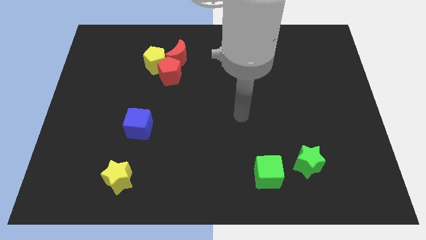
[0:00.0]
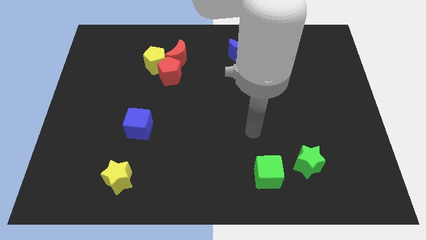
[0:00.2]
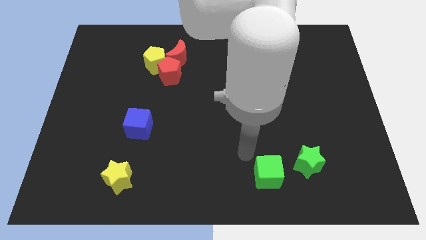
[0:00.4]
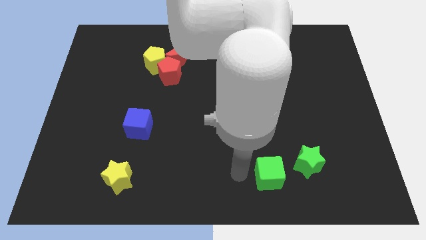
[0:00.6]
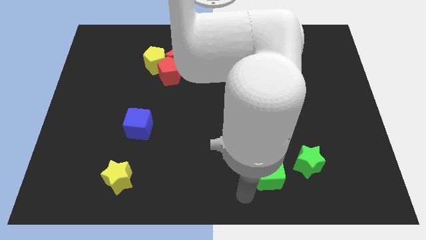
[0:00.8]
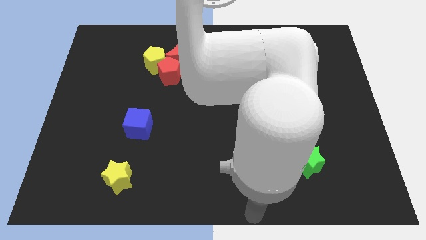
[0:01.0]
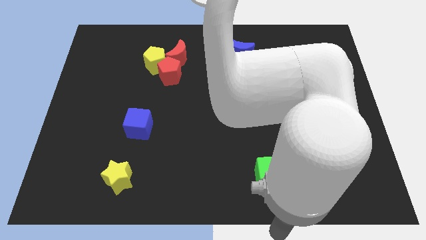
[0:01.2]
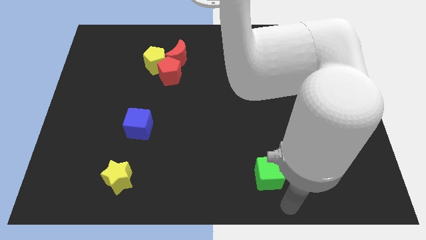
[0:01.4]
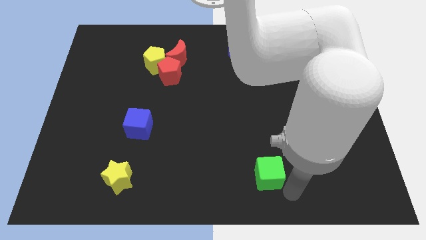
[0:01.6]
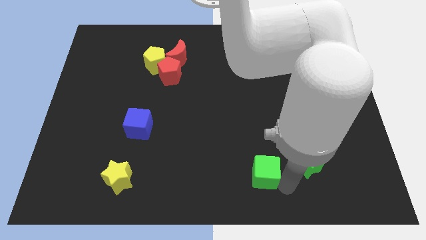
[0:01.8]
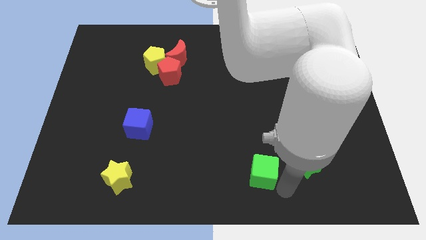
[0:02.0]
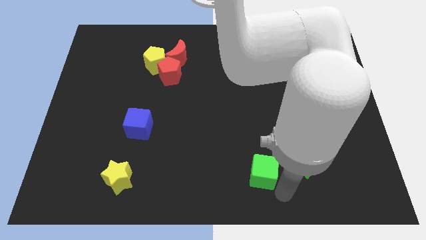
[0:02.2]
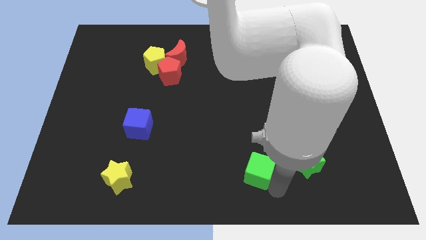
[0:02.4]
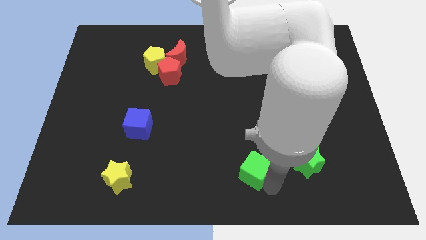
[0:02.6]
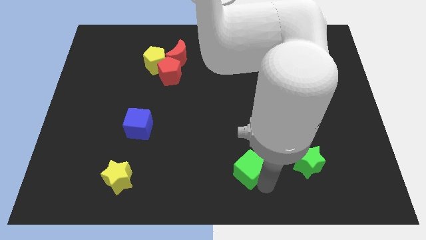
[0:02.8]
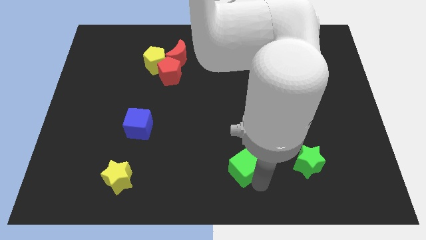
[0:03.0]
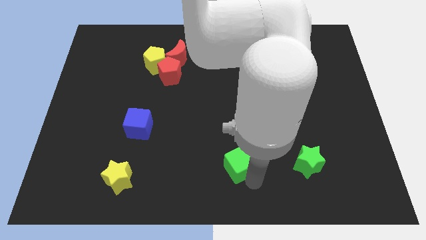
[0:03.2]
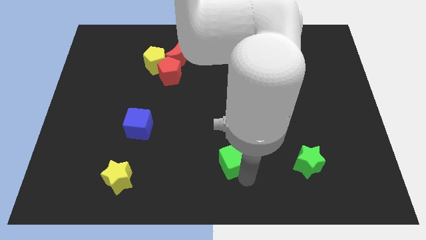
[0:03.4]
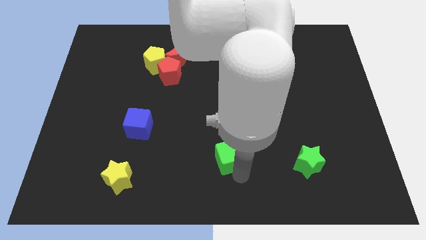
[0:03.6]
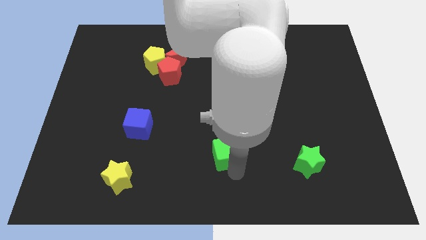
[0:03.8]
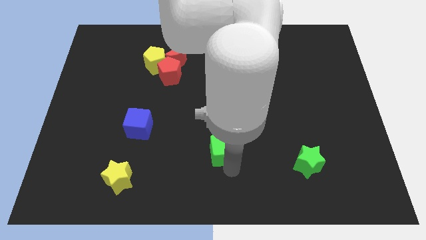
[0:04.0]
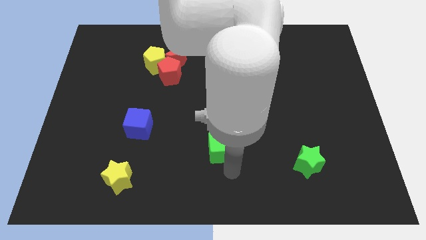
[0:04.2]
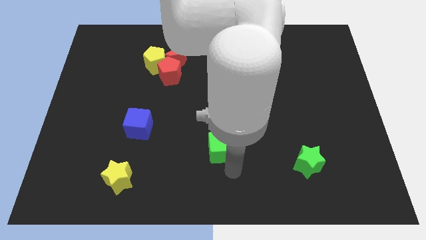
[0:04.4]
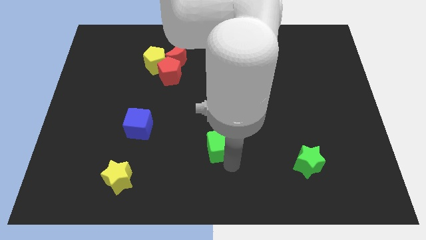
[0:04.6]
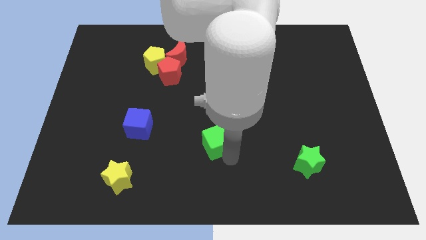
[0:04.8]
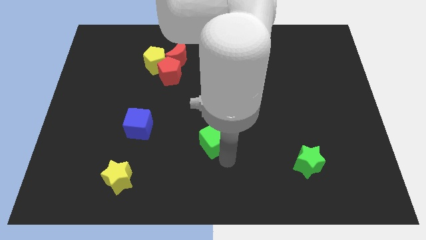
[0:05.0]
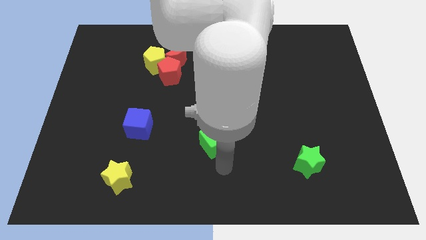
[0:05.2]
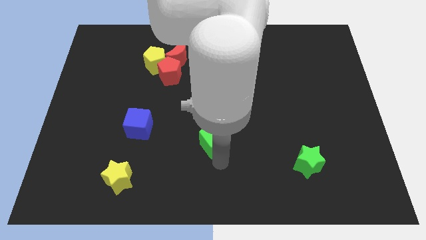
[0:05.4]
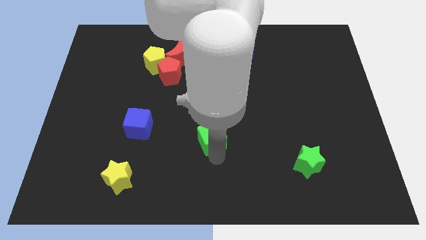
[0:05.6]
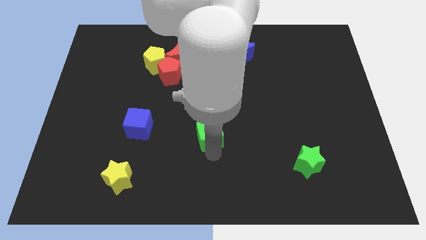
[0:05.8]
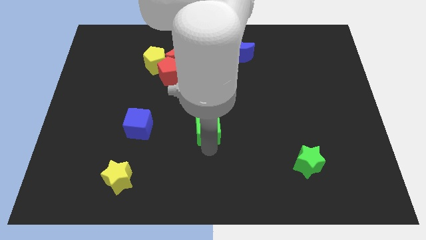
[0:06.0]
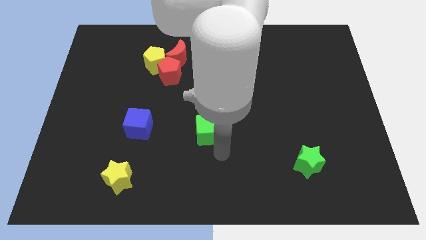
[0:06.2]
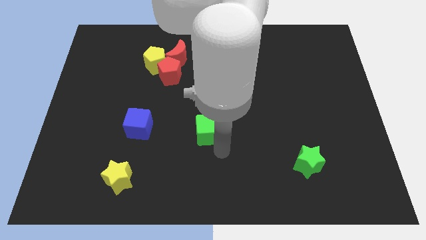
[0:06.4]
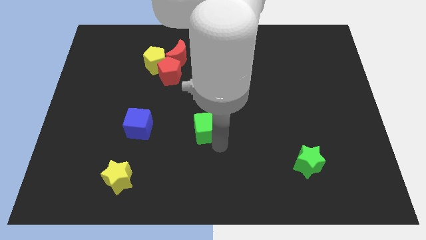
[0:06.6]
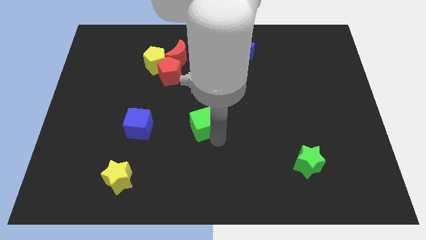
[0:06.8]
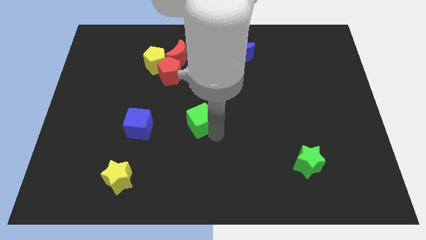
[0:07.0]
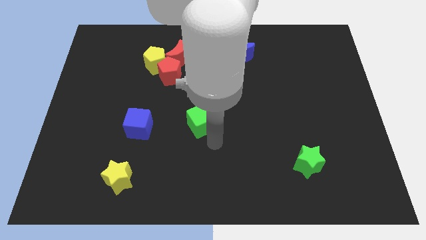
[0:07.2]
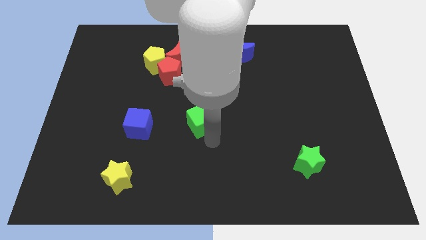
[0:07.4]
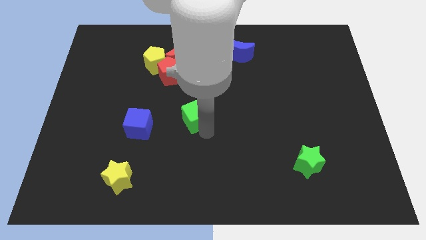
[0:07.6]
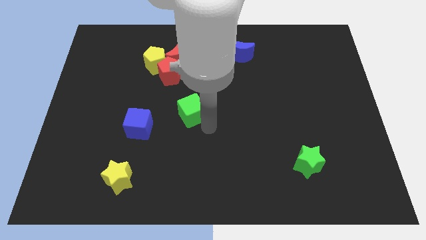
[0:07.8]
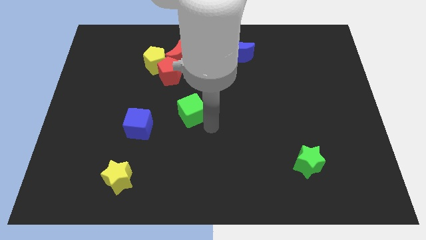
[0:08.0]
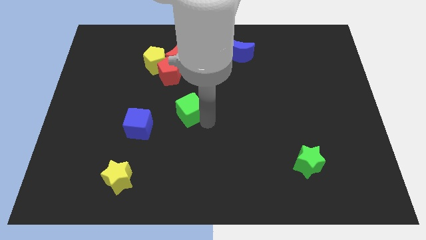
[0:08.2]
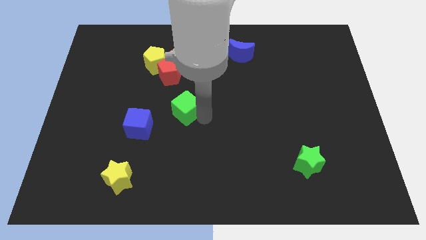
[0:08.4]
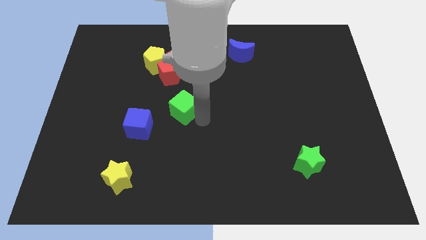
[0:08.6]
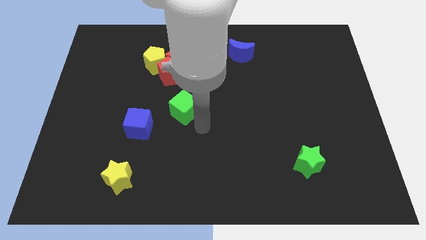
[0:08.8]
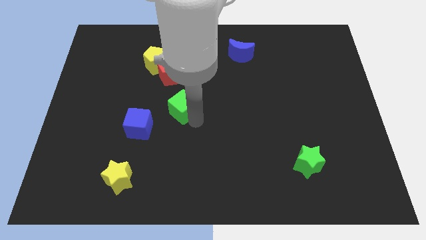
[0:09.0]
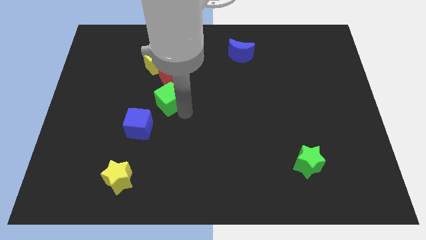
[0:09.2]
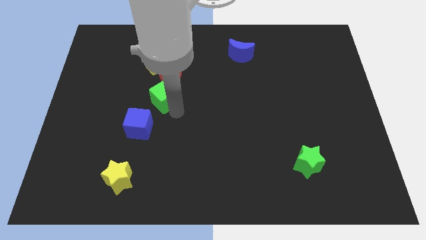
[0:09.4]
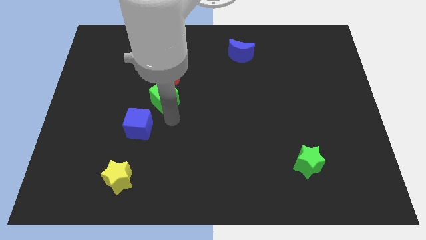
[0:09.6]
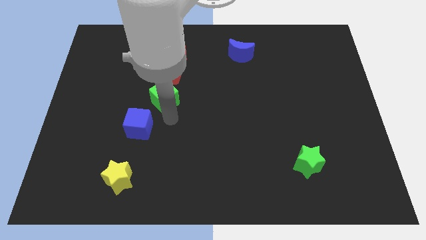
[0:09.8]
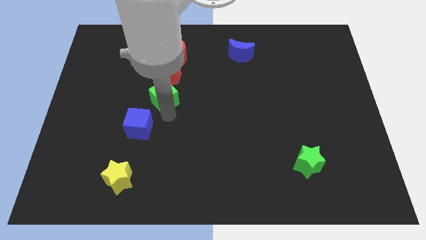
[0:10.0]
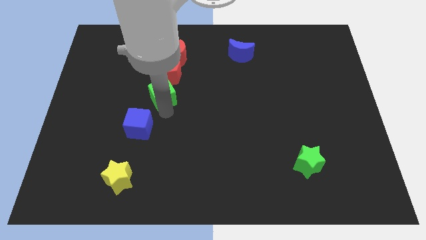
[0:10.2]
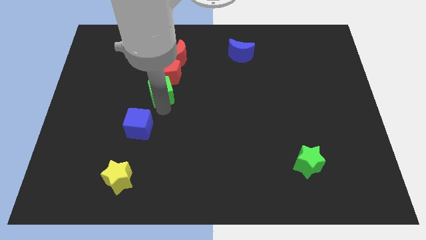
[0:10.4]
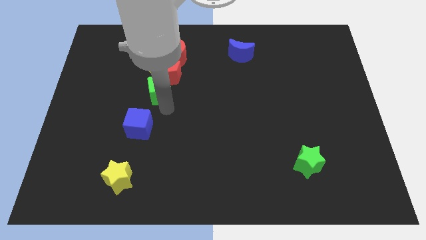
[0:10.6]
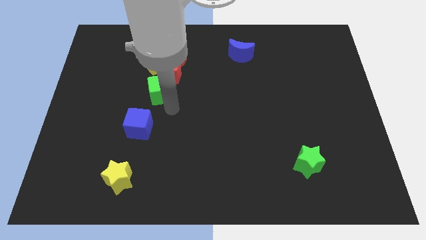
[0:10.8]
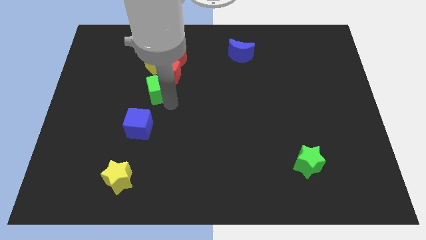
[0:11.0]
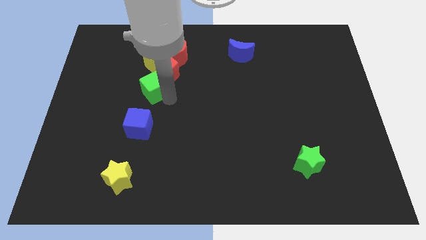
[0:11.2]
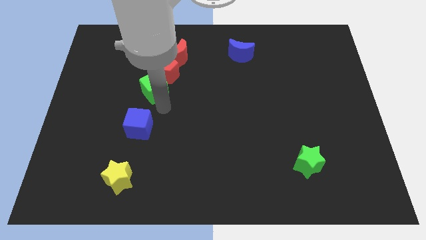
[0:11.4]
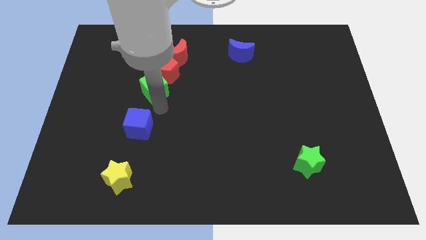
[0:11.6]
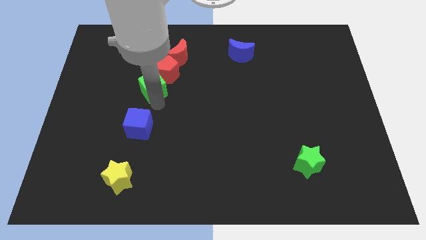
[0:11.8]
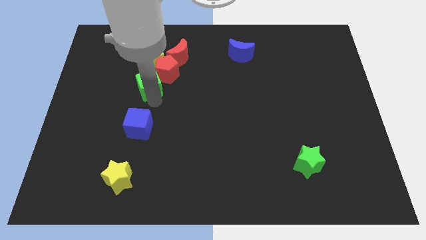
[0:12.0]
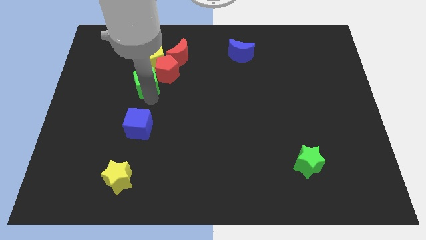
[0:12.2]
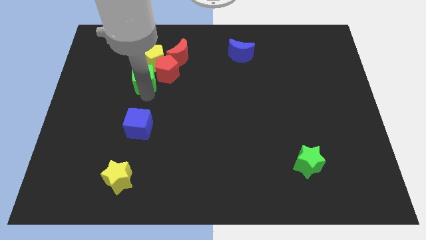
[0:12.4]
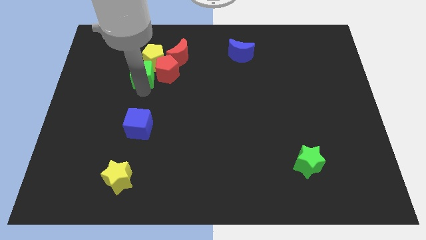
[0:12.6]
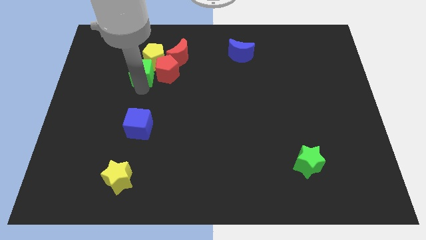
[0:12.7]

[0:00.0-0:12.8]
push the green cube to the yellow pentagon
